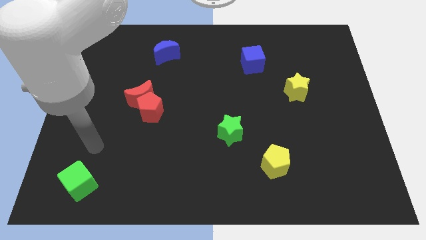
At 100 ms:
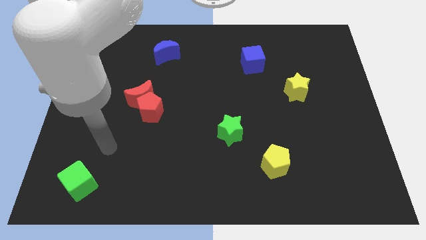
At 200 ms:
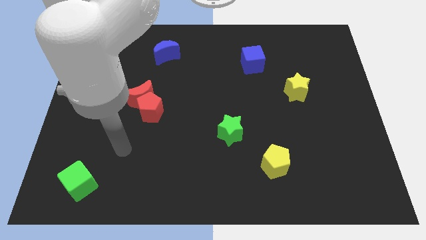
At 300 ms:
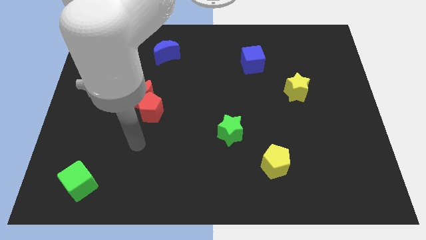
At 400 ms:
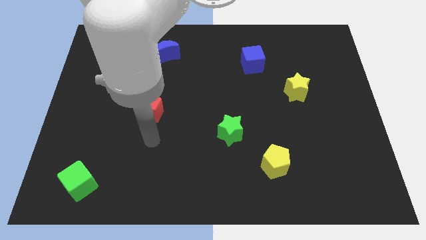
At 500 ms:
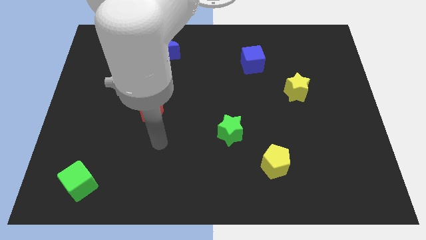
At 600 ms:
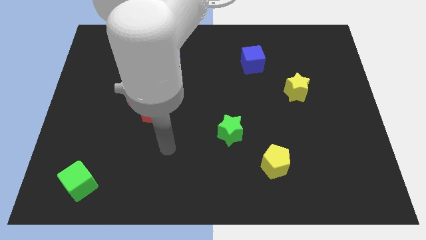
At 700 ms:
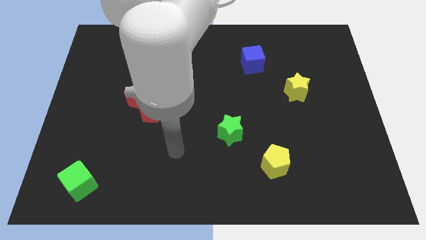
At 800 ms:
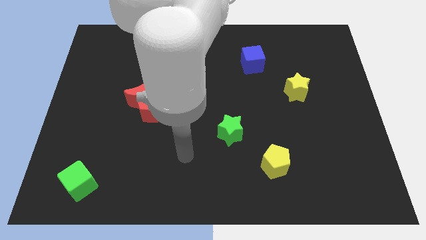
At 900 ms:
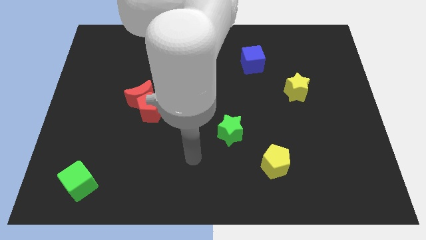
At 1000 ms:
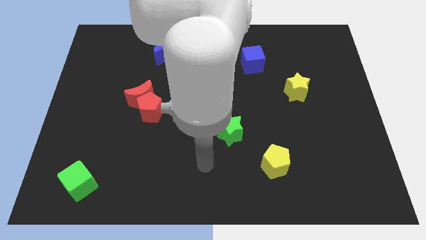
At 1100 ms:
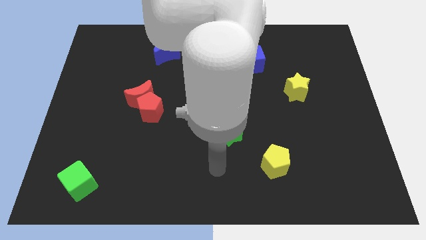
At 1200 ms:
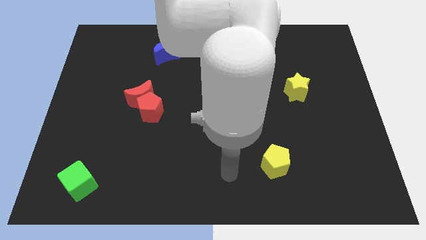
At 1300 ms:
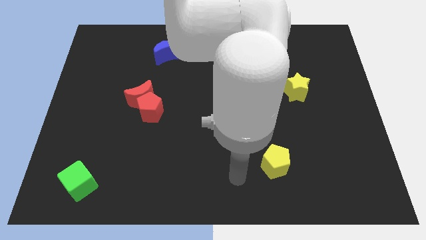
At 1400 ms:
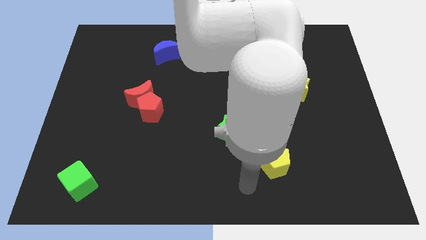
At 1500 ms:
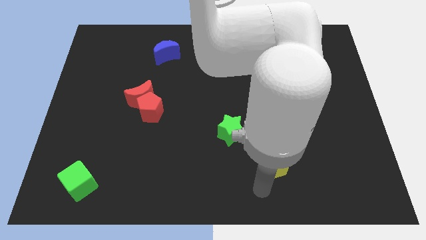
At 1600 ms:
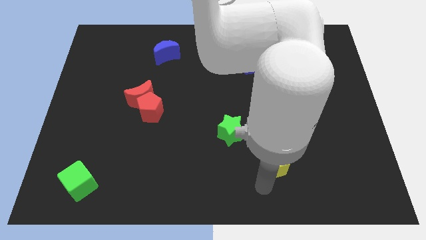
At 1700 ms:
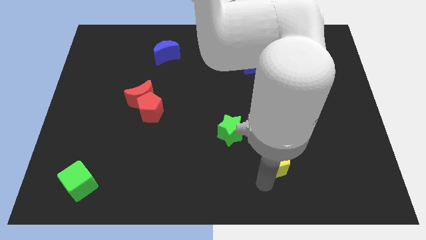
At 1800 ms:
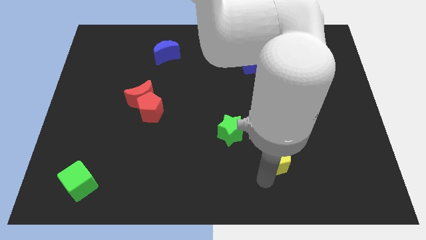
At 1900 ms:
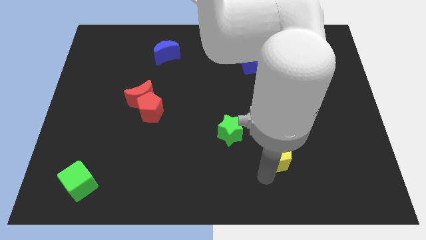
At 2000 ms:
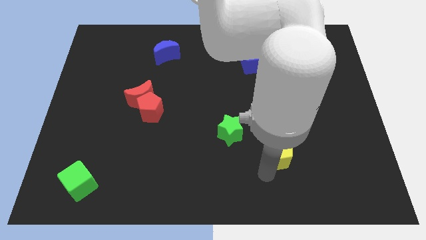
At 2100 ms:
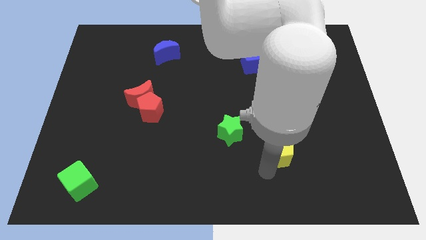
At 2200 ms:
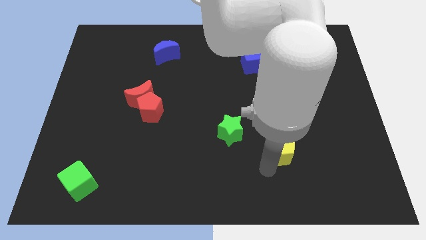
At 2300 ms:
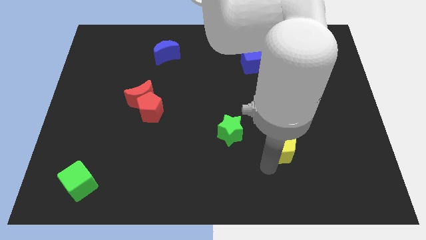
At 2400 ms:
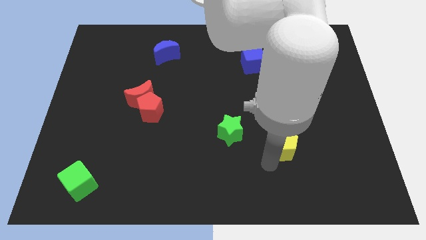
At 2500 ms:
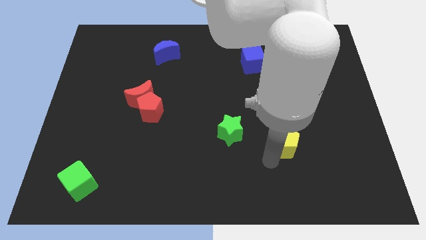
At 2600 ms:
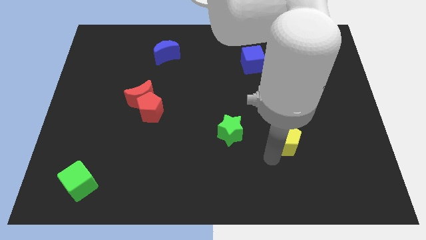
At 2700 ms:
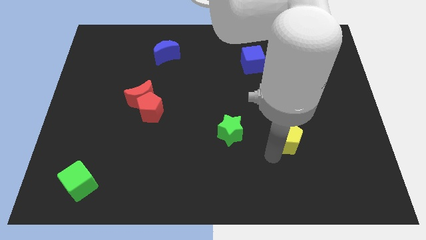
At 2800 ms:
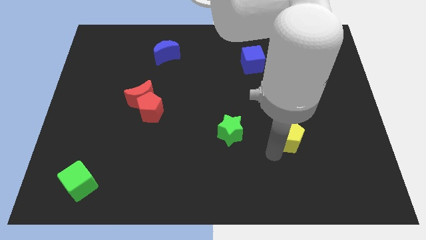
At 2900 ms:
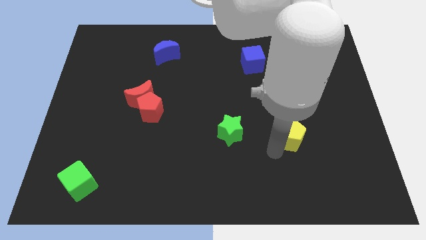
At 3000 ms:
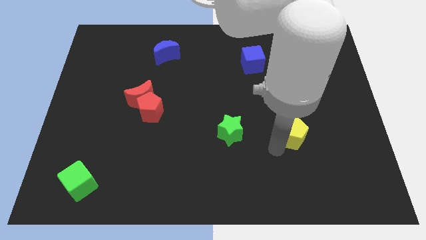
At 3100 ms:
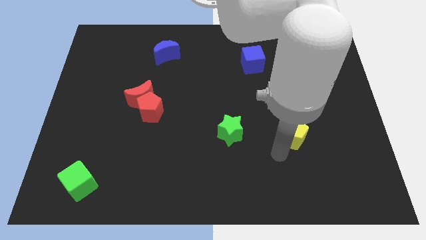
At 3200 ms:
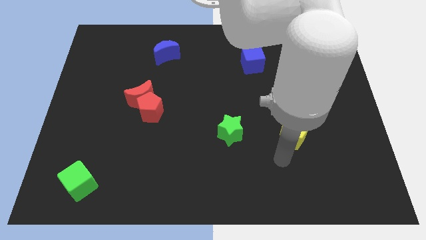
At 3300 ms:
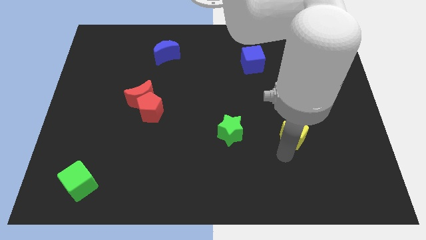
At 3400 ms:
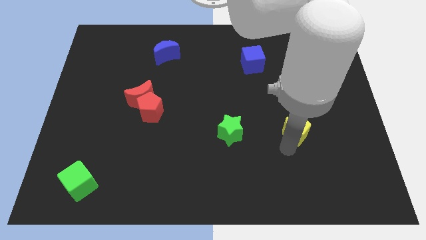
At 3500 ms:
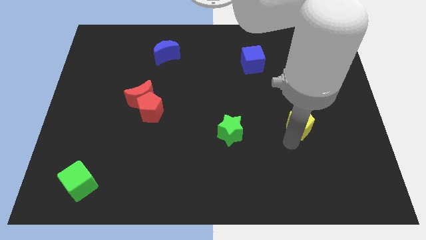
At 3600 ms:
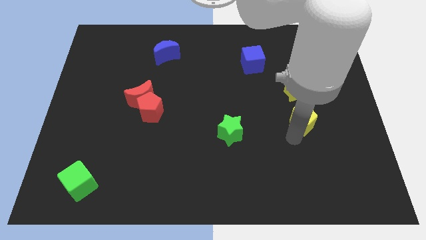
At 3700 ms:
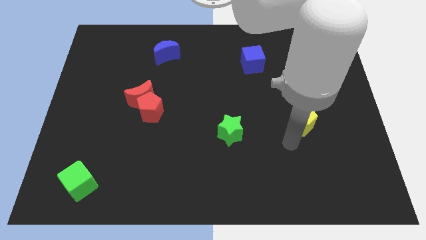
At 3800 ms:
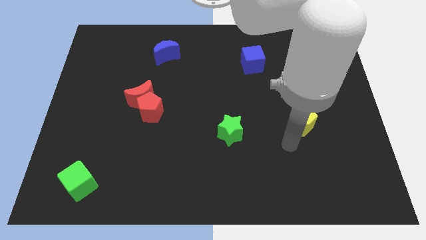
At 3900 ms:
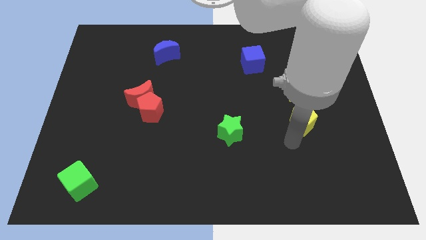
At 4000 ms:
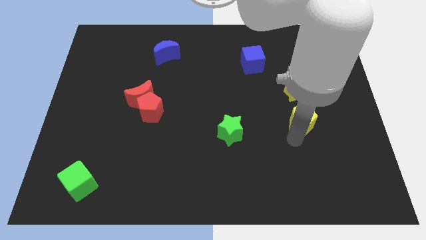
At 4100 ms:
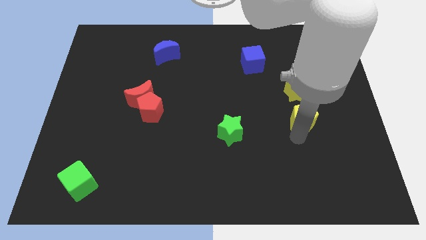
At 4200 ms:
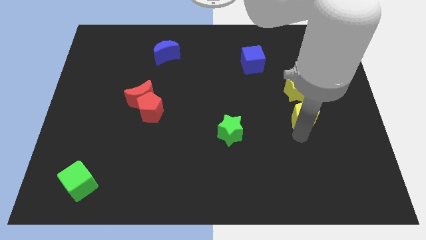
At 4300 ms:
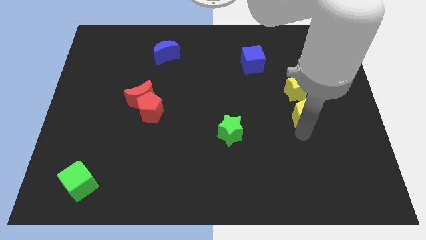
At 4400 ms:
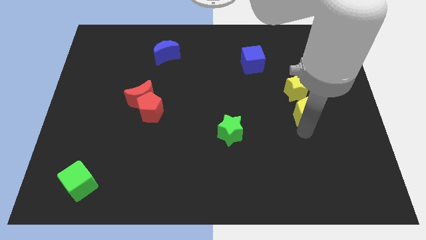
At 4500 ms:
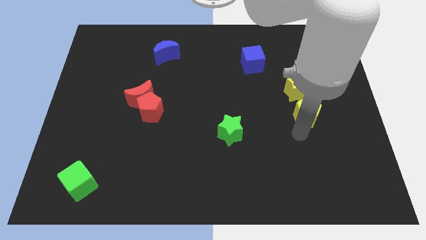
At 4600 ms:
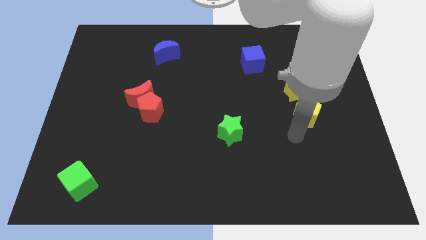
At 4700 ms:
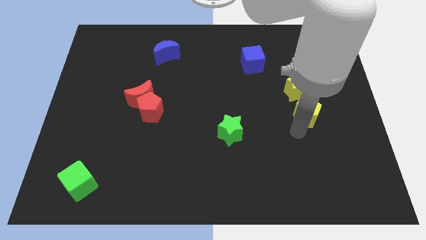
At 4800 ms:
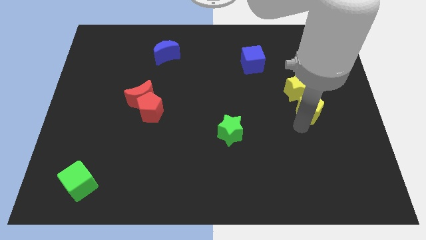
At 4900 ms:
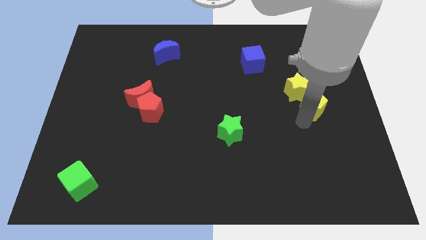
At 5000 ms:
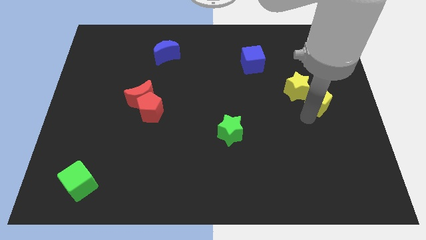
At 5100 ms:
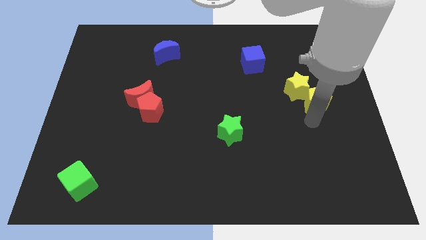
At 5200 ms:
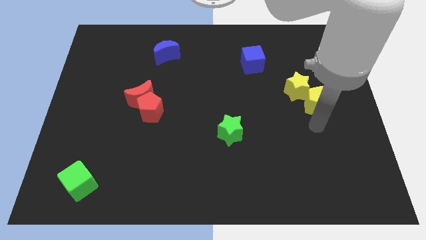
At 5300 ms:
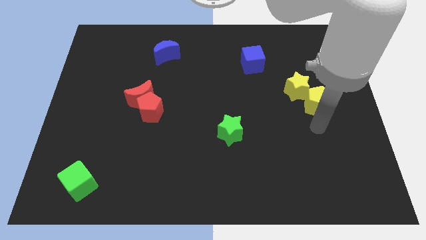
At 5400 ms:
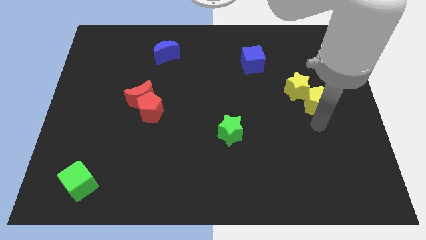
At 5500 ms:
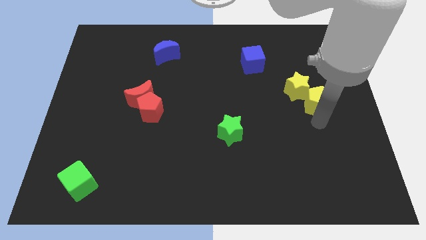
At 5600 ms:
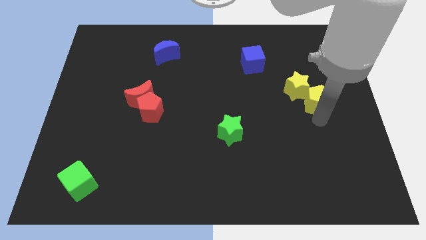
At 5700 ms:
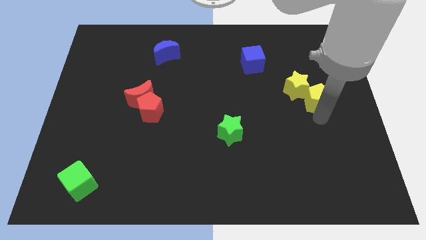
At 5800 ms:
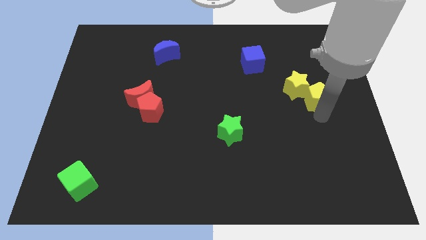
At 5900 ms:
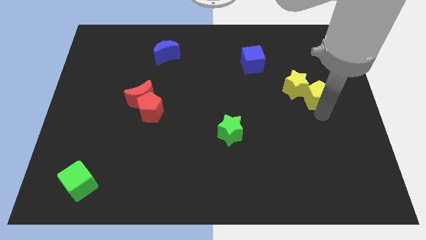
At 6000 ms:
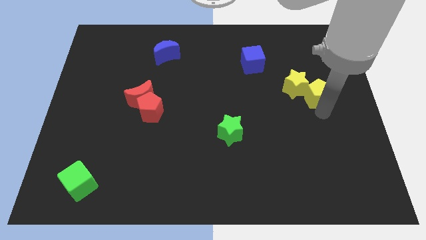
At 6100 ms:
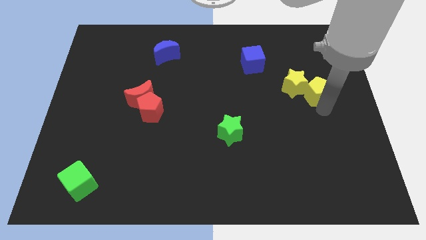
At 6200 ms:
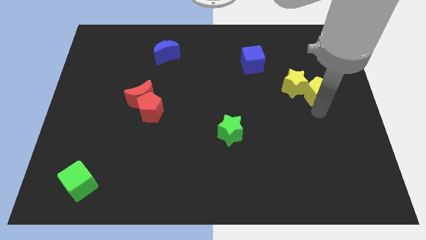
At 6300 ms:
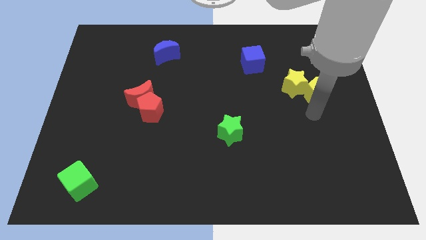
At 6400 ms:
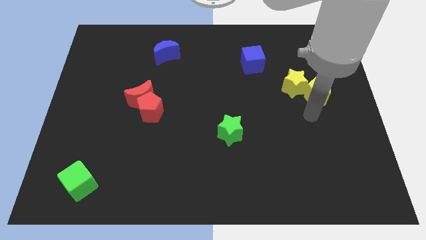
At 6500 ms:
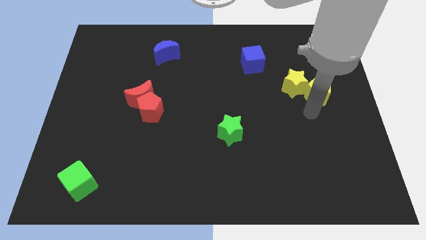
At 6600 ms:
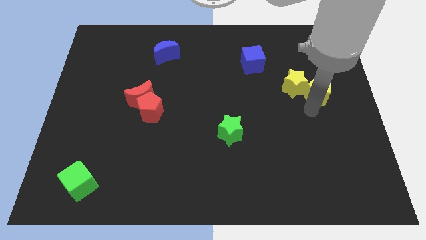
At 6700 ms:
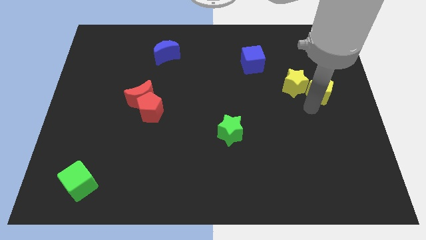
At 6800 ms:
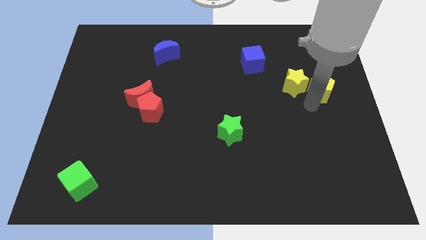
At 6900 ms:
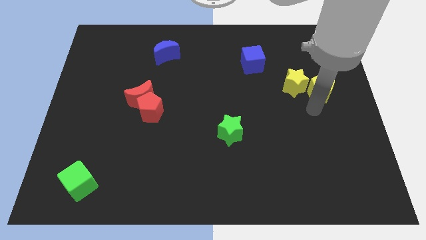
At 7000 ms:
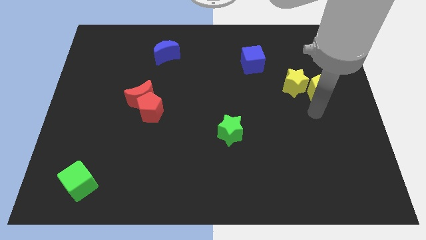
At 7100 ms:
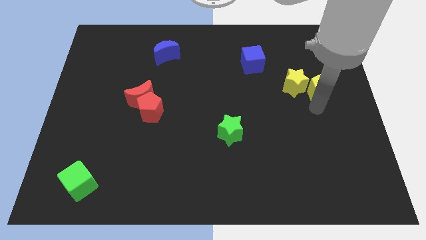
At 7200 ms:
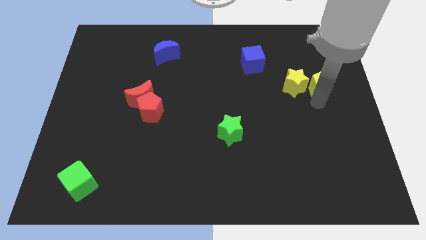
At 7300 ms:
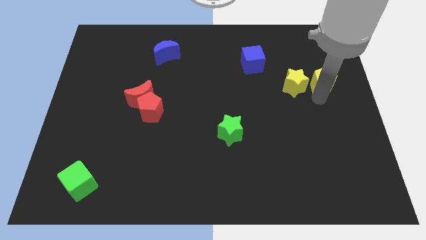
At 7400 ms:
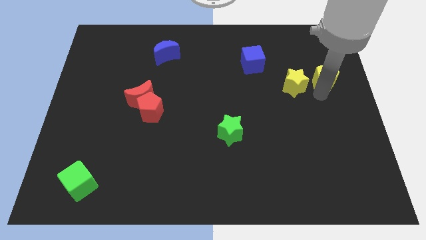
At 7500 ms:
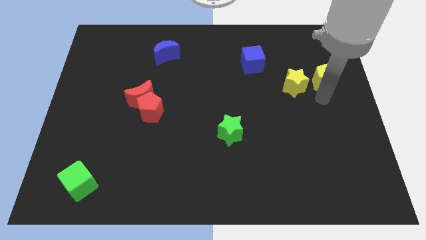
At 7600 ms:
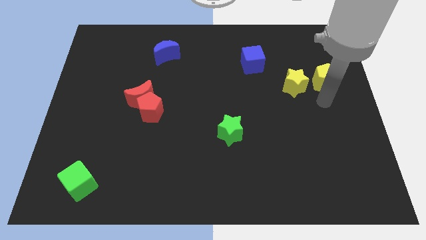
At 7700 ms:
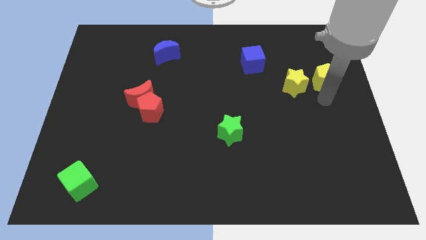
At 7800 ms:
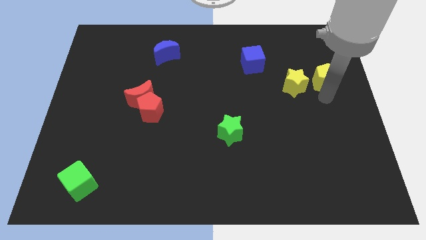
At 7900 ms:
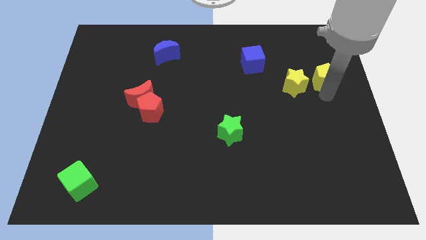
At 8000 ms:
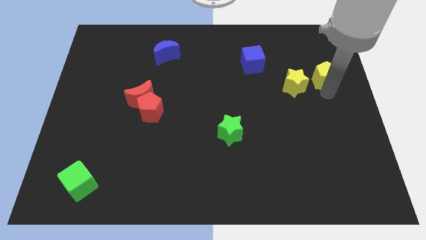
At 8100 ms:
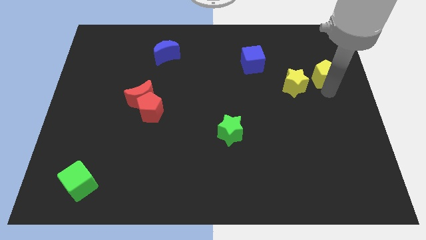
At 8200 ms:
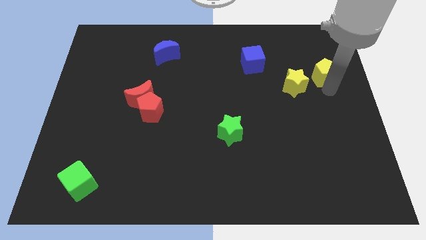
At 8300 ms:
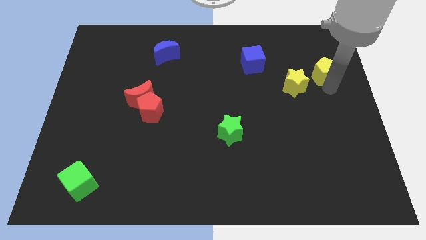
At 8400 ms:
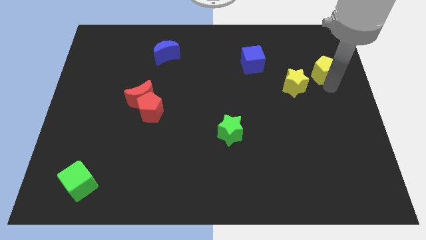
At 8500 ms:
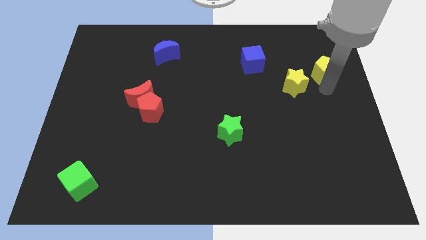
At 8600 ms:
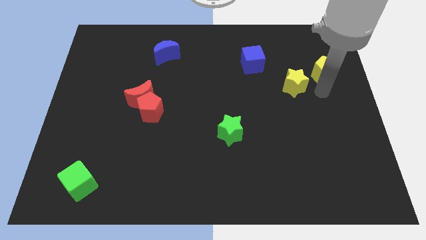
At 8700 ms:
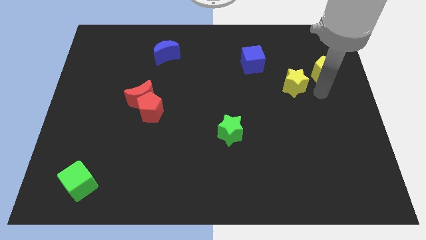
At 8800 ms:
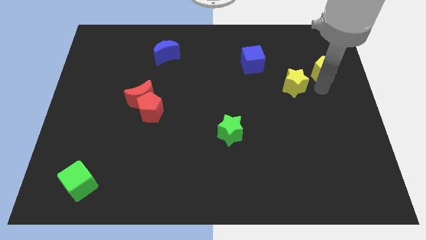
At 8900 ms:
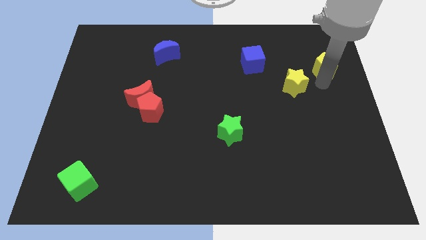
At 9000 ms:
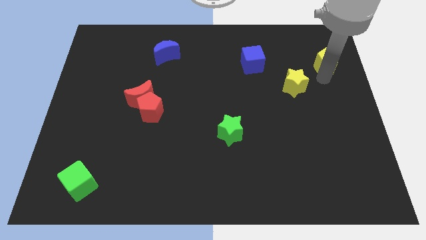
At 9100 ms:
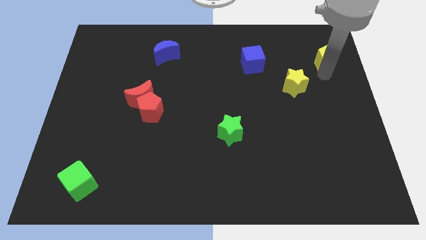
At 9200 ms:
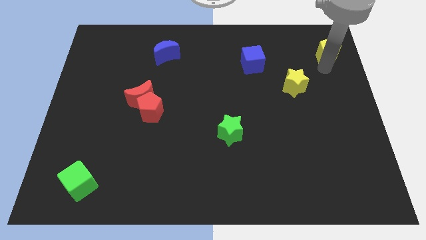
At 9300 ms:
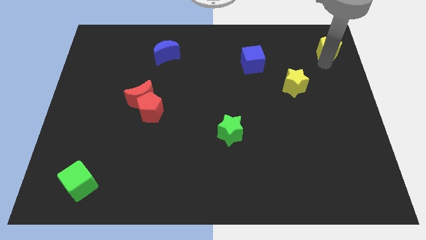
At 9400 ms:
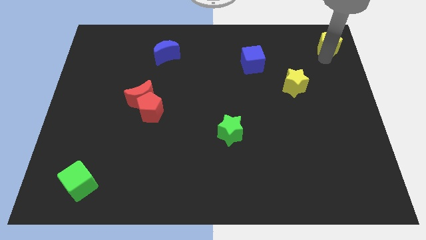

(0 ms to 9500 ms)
push the yellow pentagon to the top right of the board
